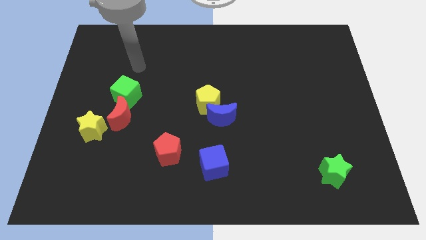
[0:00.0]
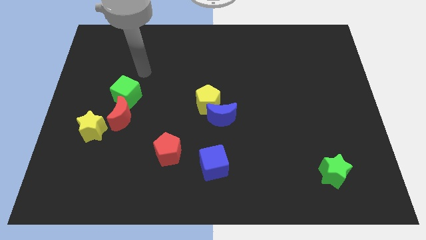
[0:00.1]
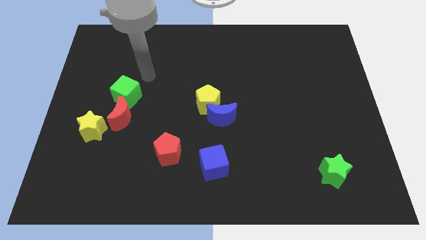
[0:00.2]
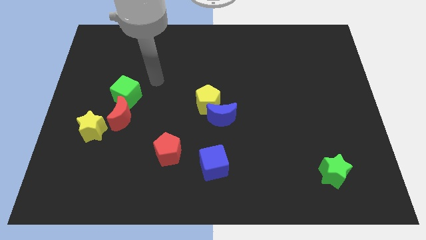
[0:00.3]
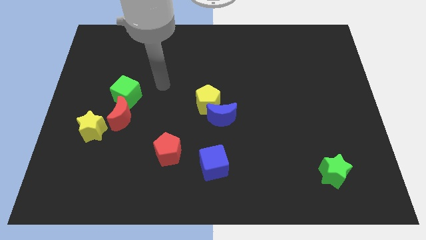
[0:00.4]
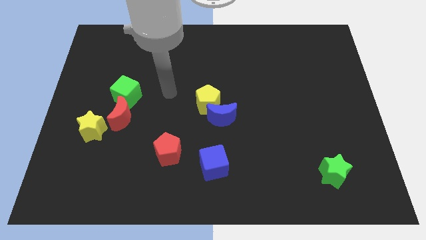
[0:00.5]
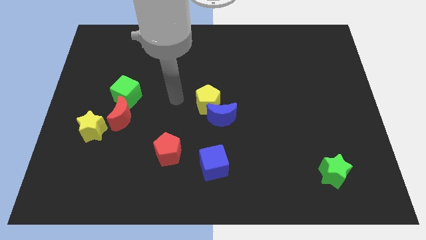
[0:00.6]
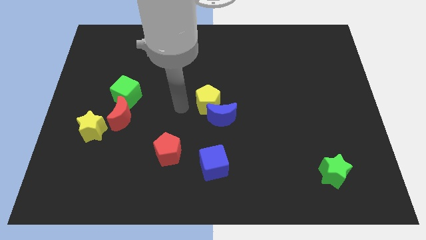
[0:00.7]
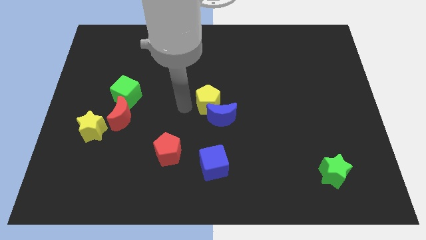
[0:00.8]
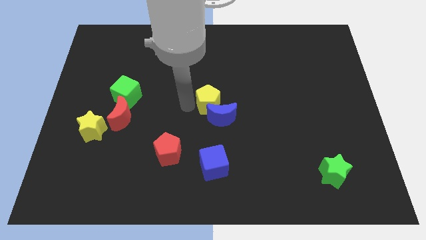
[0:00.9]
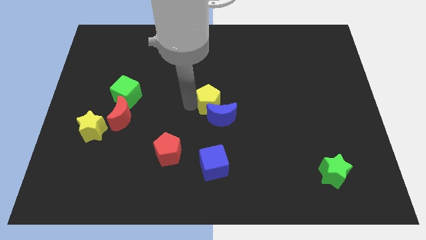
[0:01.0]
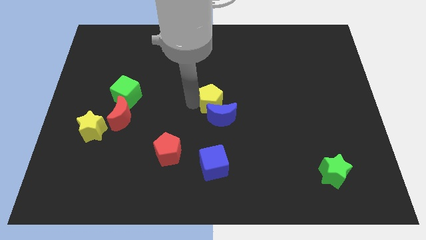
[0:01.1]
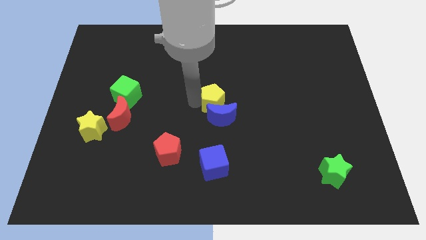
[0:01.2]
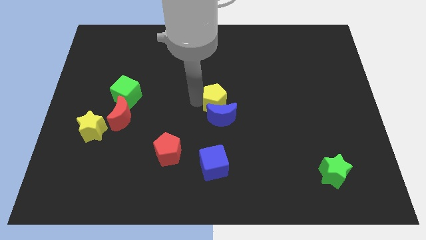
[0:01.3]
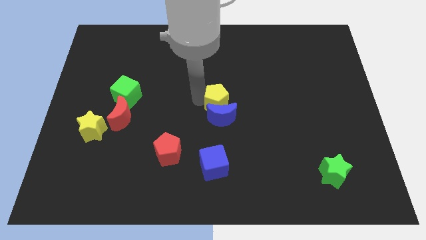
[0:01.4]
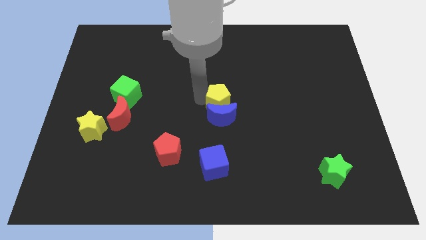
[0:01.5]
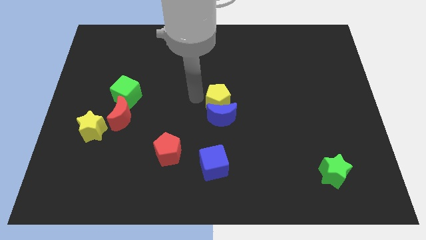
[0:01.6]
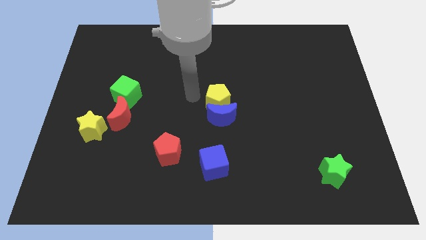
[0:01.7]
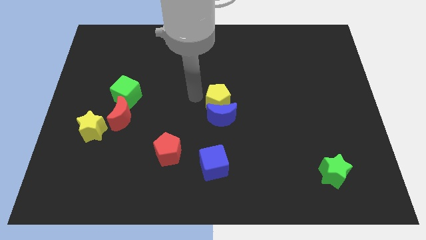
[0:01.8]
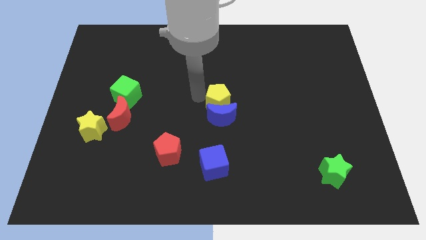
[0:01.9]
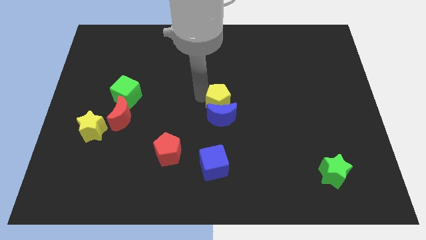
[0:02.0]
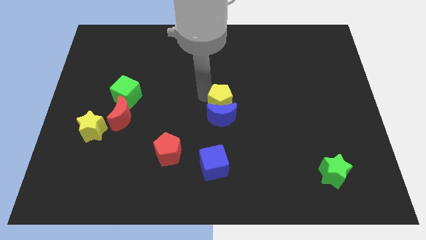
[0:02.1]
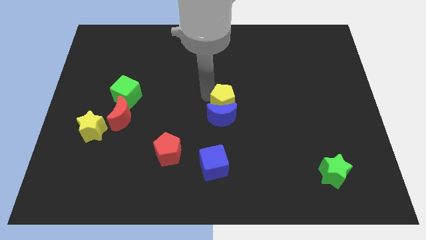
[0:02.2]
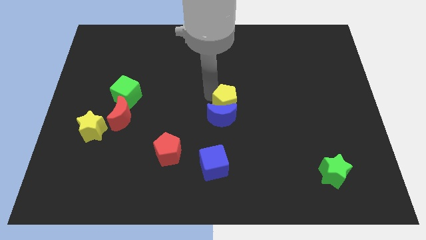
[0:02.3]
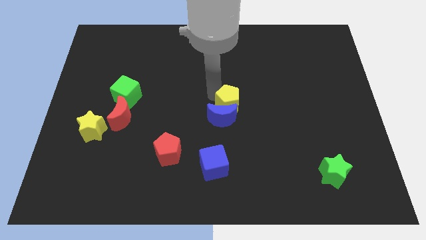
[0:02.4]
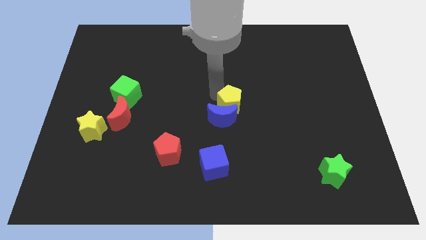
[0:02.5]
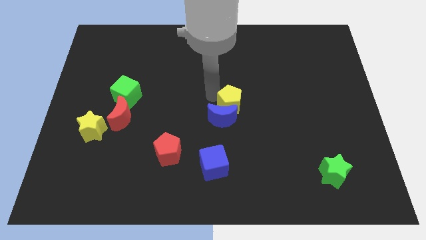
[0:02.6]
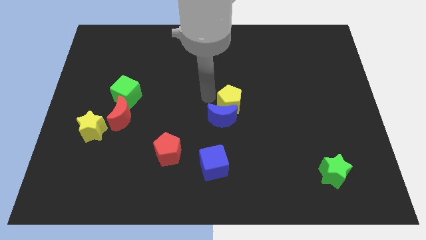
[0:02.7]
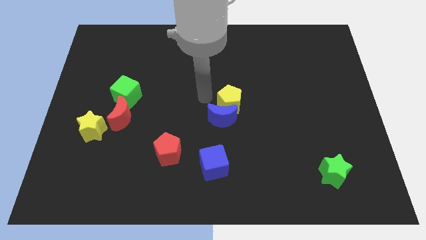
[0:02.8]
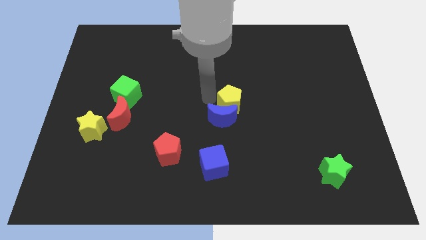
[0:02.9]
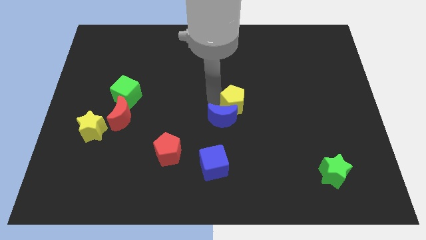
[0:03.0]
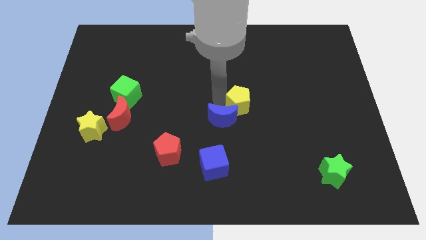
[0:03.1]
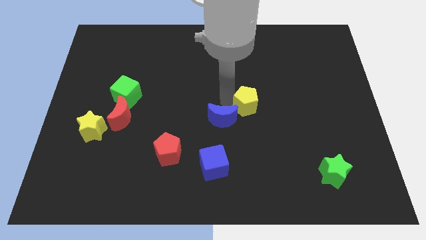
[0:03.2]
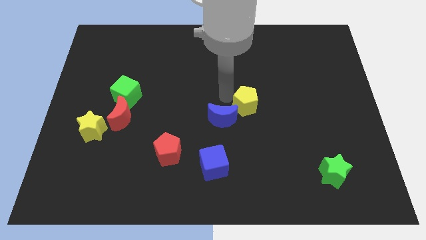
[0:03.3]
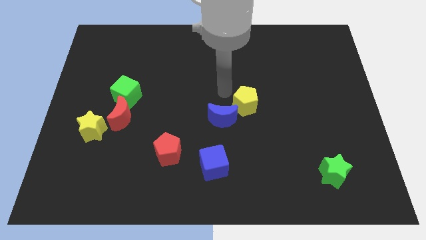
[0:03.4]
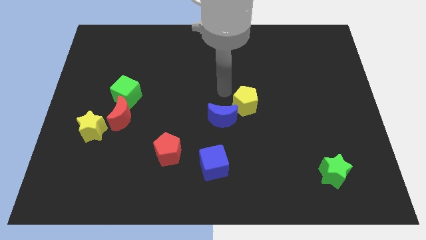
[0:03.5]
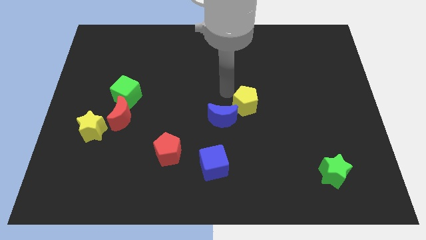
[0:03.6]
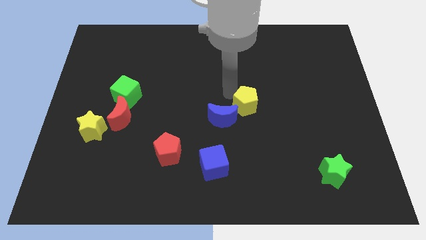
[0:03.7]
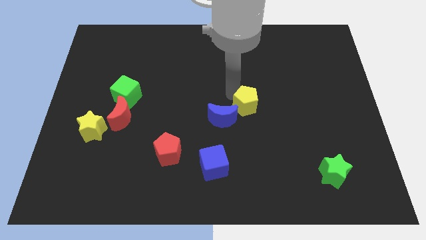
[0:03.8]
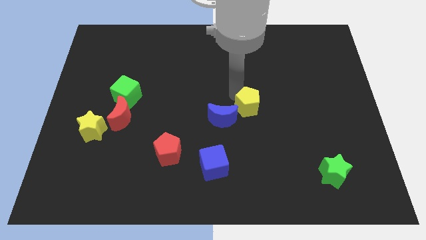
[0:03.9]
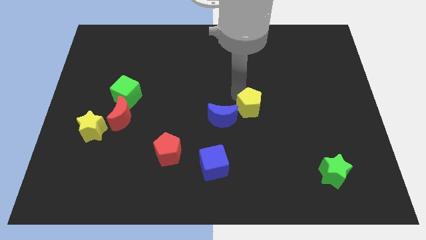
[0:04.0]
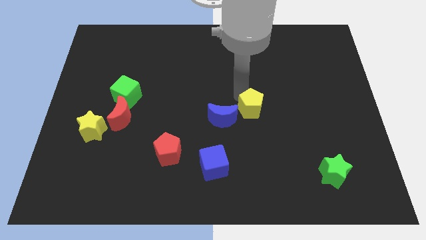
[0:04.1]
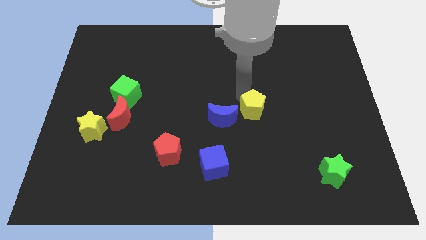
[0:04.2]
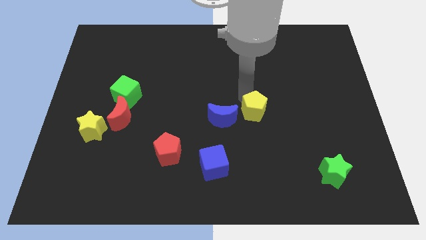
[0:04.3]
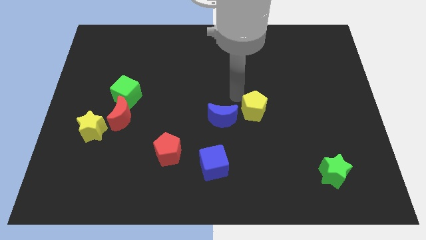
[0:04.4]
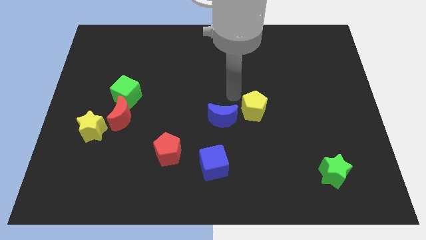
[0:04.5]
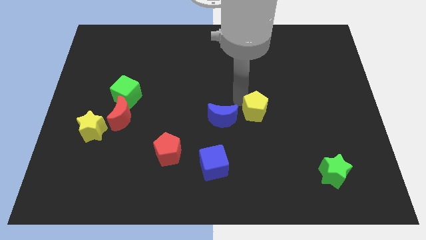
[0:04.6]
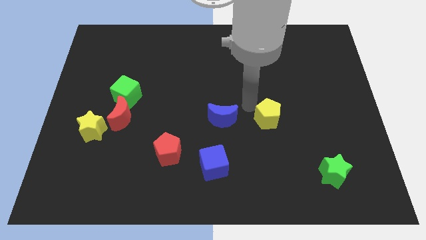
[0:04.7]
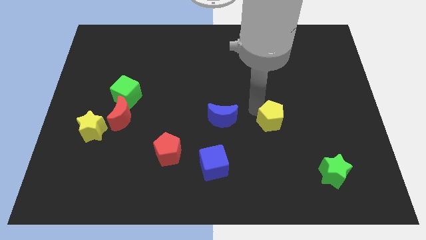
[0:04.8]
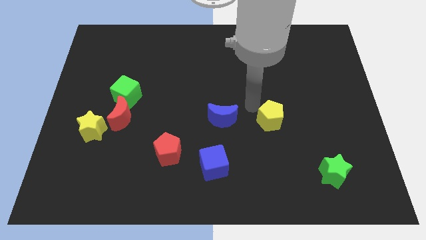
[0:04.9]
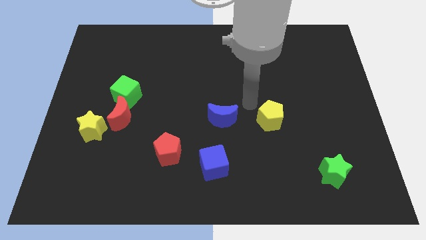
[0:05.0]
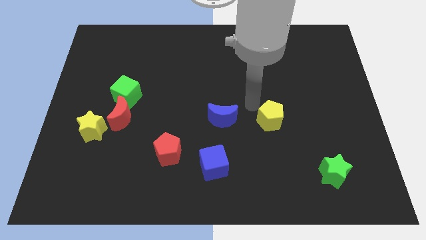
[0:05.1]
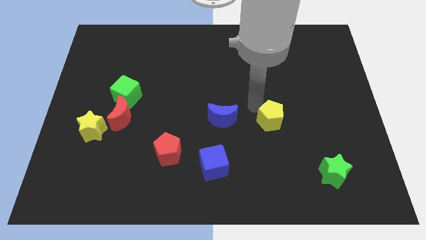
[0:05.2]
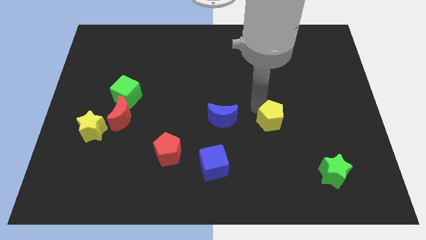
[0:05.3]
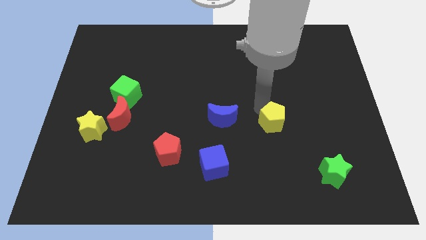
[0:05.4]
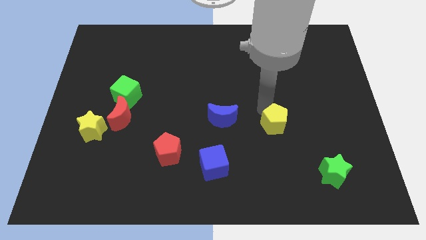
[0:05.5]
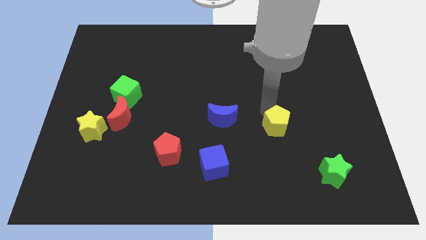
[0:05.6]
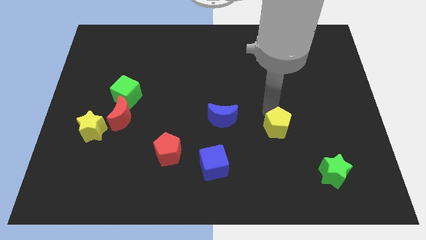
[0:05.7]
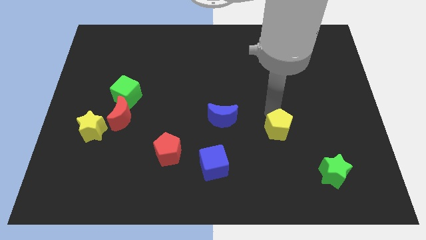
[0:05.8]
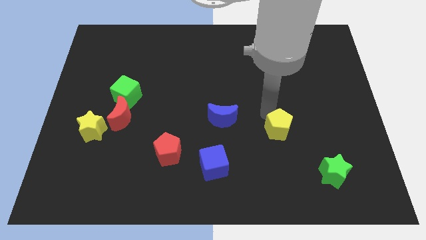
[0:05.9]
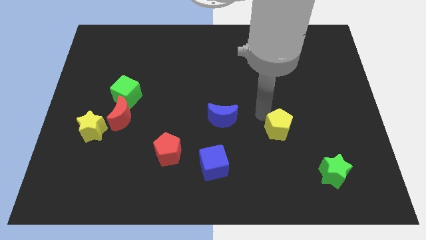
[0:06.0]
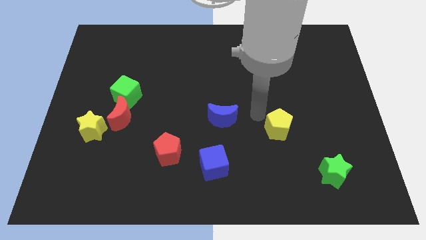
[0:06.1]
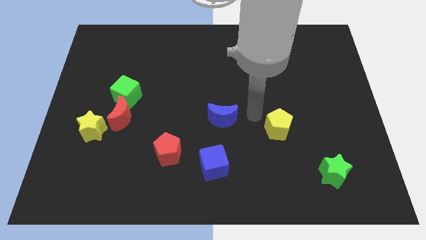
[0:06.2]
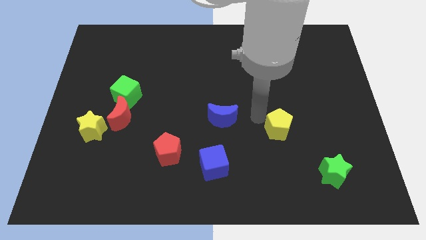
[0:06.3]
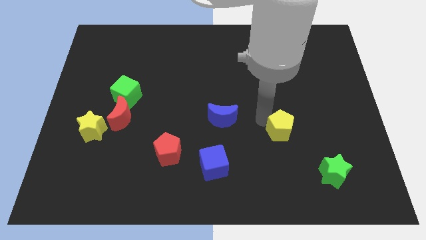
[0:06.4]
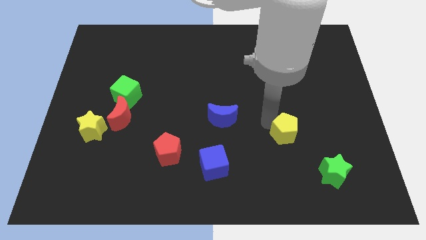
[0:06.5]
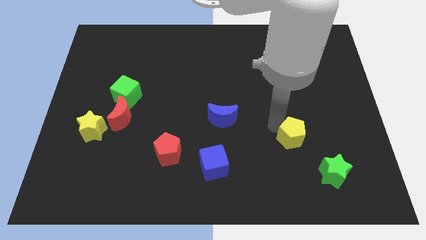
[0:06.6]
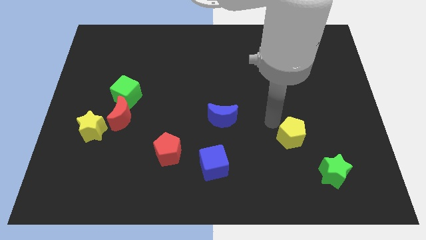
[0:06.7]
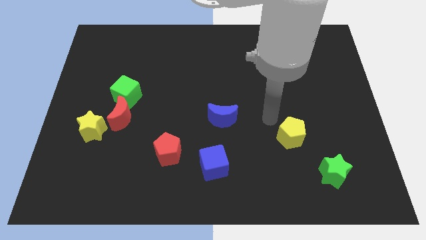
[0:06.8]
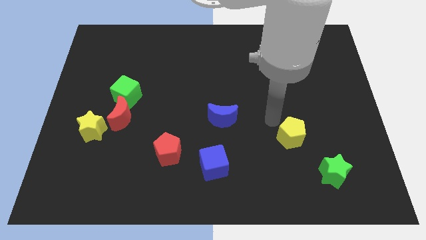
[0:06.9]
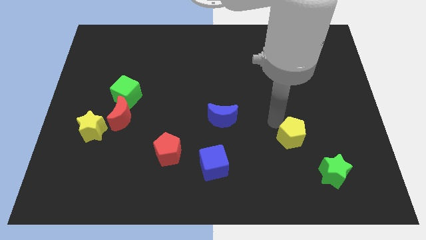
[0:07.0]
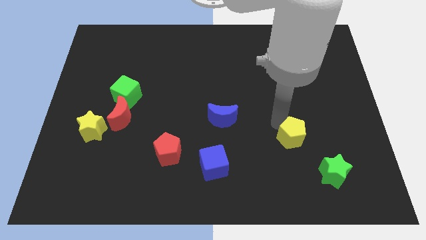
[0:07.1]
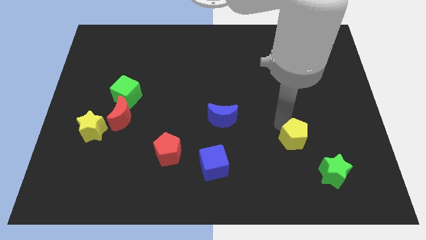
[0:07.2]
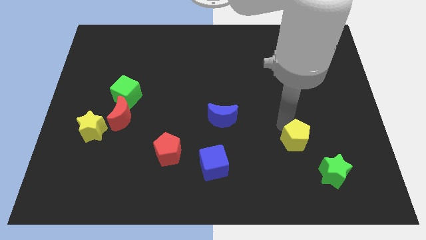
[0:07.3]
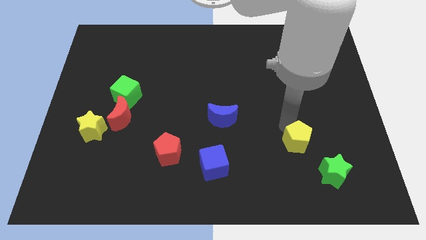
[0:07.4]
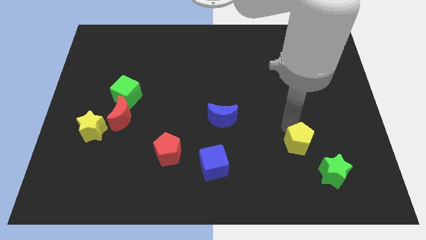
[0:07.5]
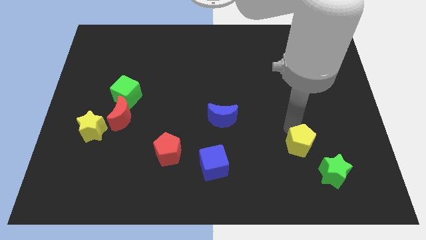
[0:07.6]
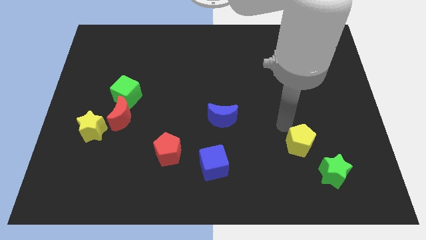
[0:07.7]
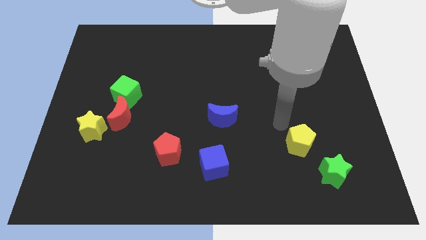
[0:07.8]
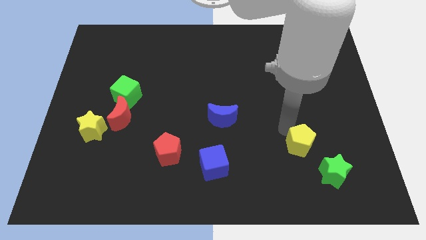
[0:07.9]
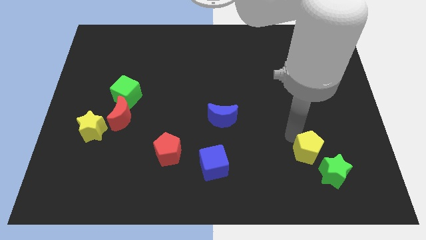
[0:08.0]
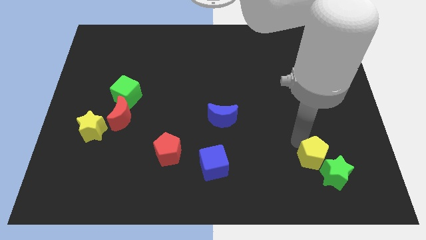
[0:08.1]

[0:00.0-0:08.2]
slide the yellow pentagon towards the green star
